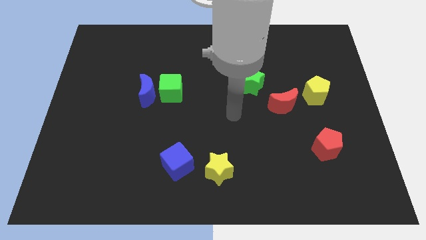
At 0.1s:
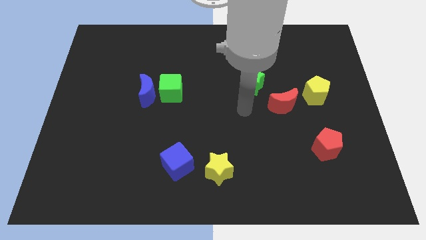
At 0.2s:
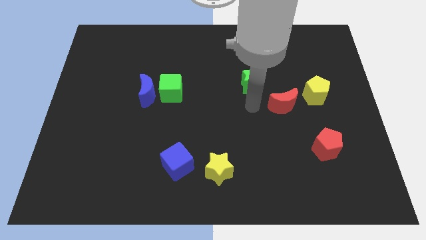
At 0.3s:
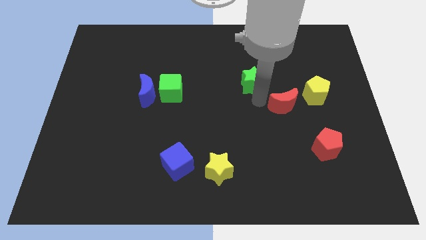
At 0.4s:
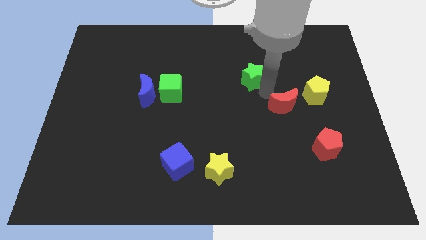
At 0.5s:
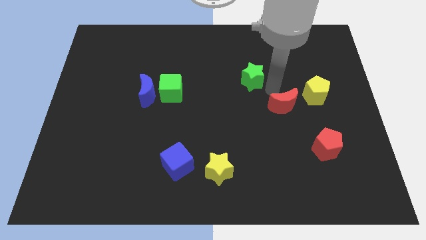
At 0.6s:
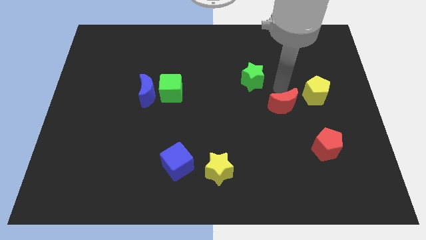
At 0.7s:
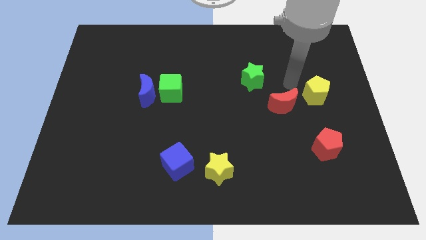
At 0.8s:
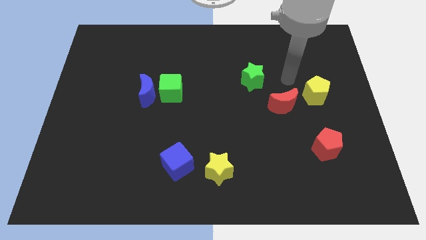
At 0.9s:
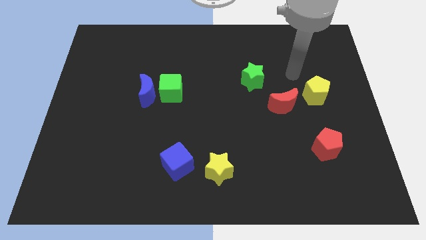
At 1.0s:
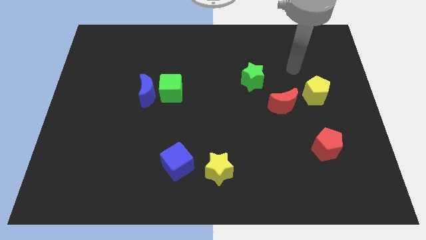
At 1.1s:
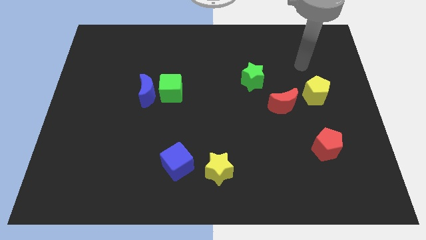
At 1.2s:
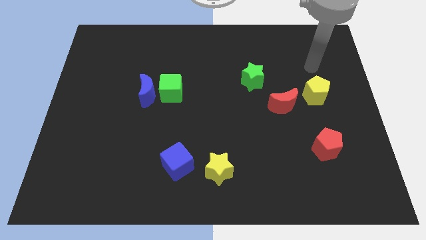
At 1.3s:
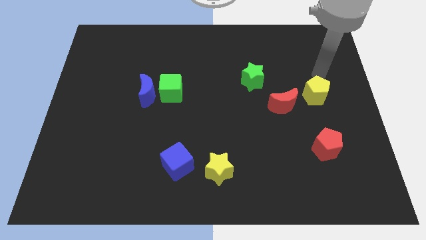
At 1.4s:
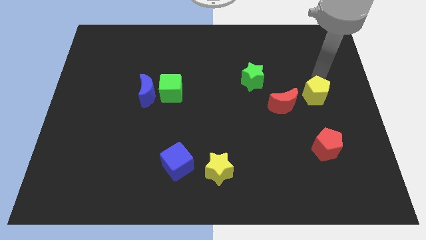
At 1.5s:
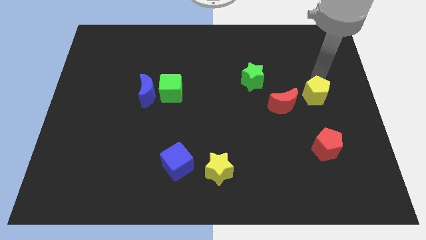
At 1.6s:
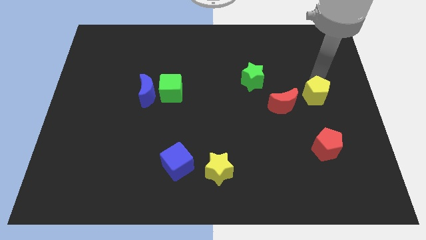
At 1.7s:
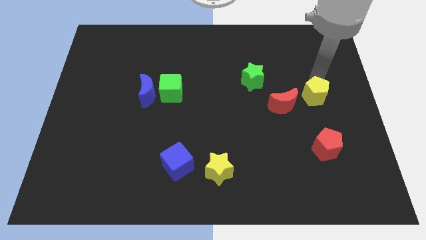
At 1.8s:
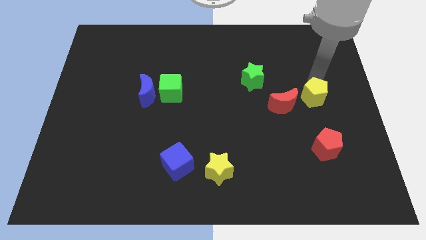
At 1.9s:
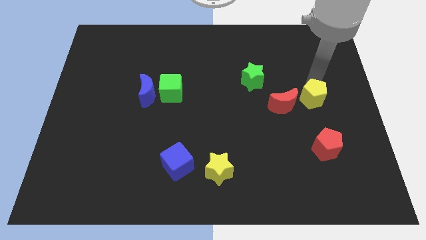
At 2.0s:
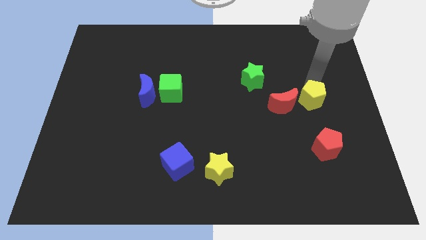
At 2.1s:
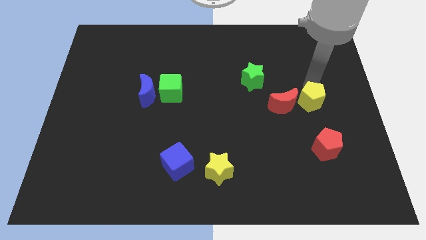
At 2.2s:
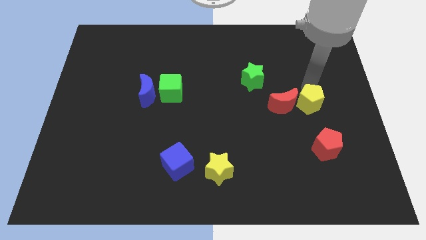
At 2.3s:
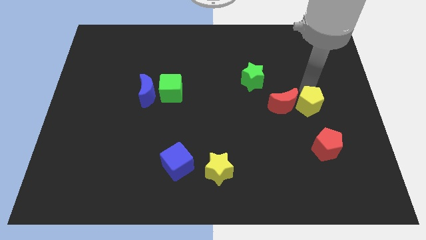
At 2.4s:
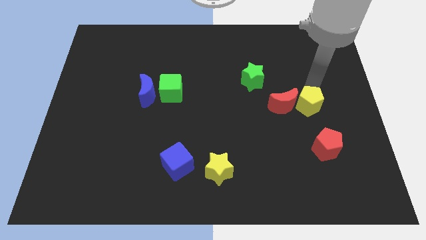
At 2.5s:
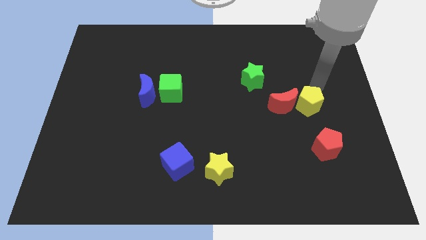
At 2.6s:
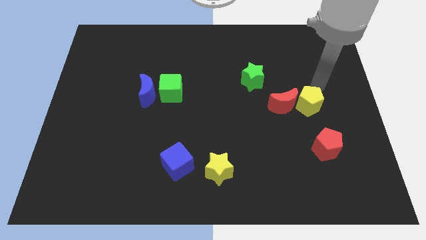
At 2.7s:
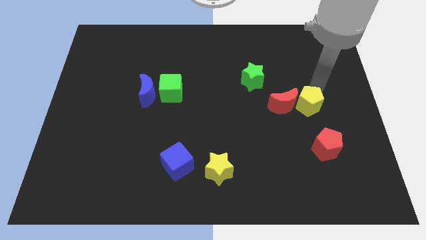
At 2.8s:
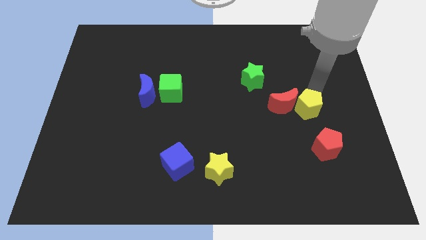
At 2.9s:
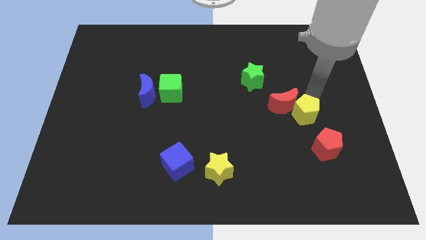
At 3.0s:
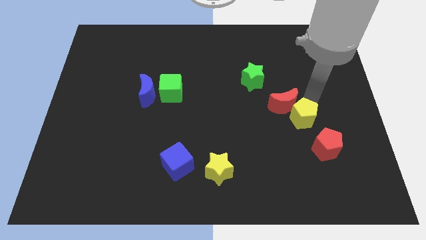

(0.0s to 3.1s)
slightly move the yellow pentagon diagonally downwards and to the left

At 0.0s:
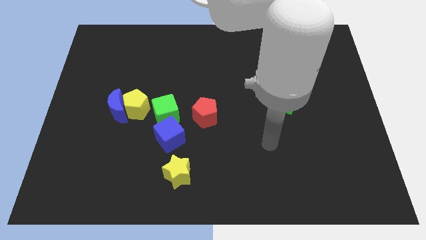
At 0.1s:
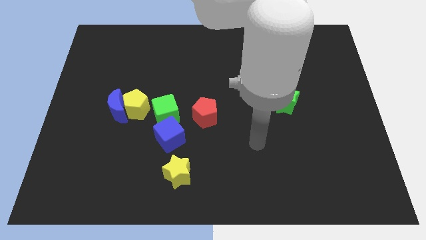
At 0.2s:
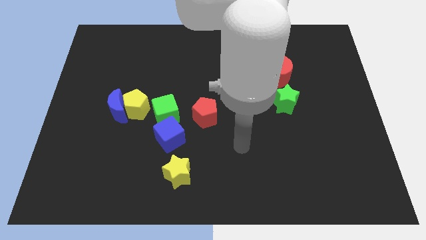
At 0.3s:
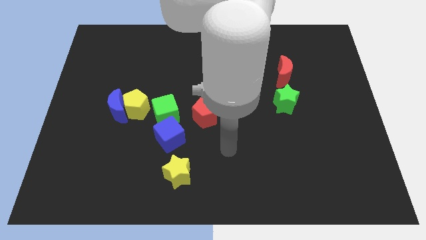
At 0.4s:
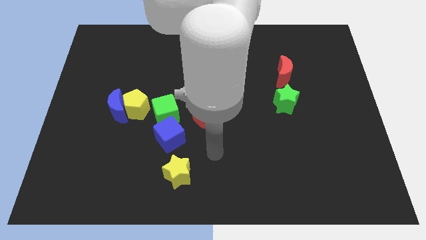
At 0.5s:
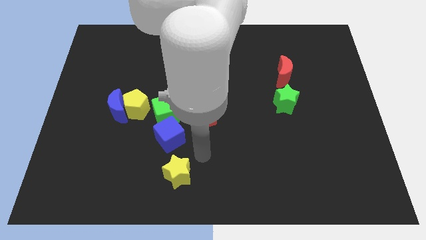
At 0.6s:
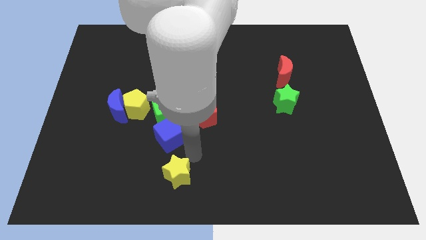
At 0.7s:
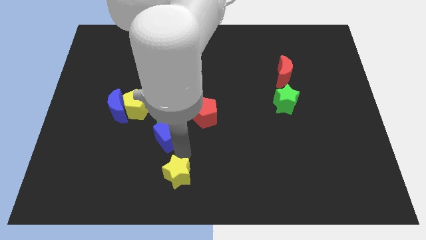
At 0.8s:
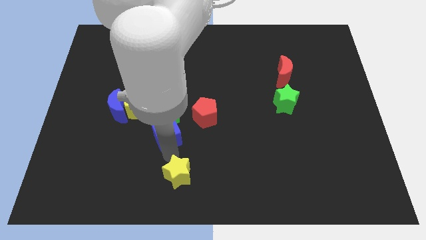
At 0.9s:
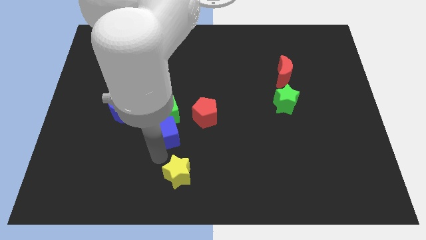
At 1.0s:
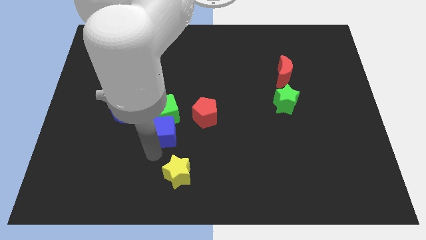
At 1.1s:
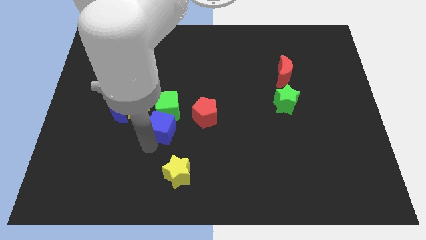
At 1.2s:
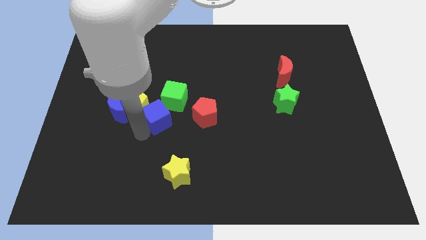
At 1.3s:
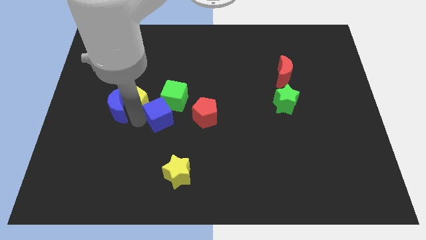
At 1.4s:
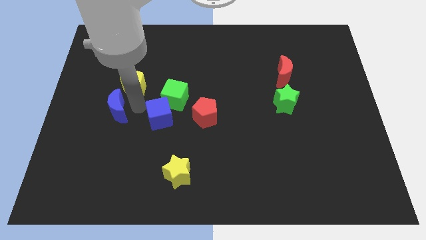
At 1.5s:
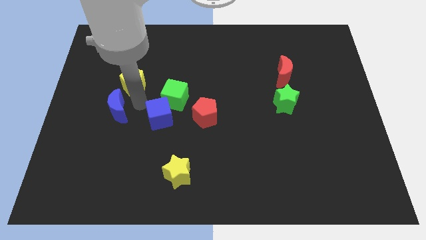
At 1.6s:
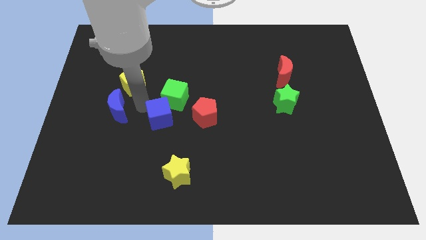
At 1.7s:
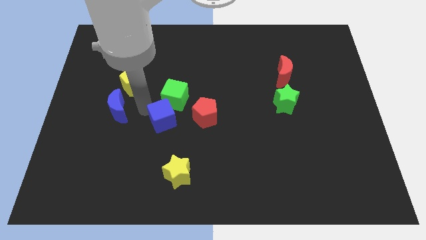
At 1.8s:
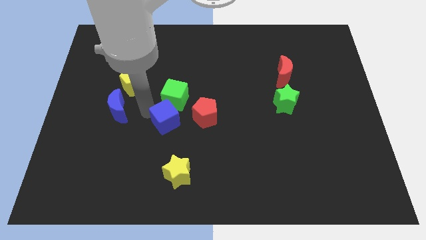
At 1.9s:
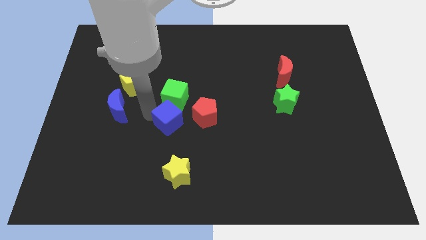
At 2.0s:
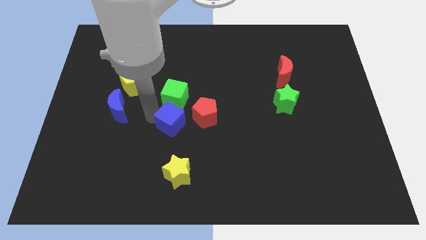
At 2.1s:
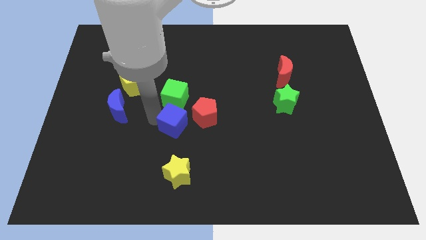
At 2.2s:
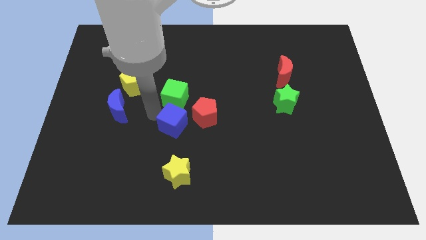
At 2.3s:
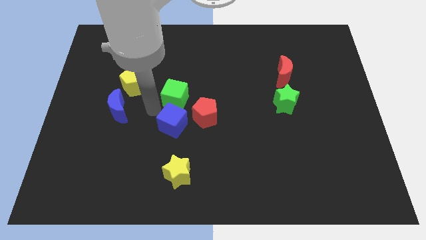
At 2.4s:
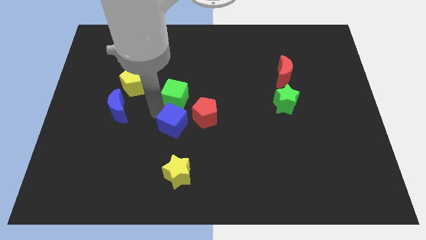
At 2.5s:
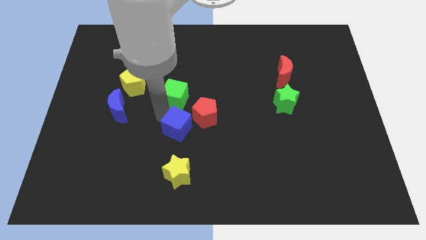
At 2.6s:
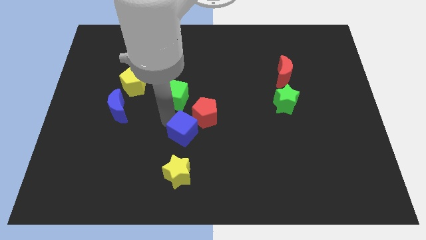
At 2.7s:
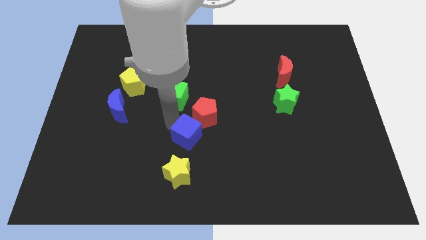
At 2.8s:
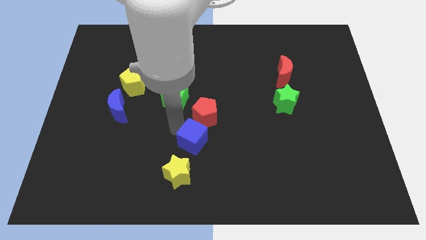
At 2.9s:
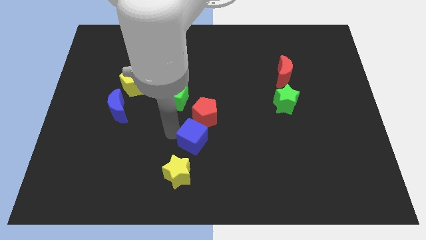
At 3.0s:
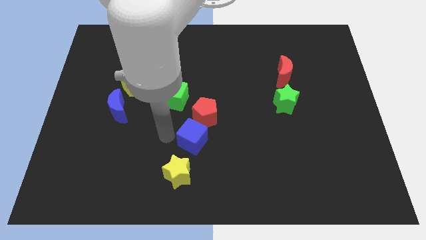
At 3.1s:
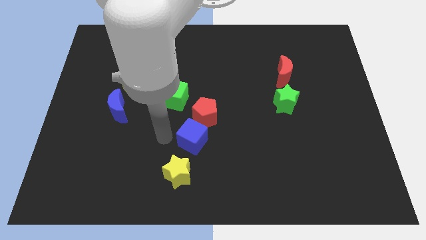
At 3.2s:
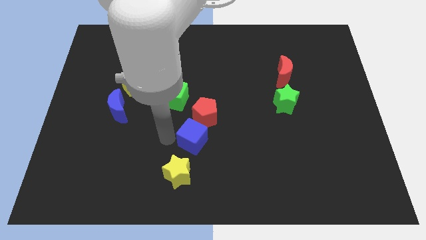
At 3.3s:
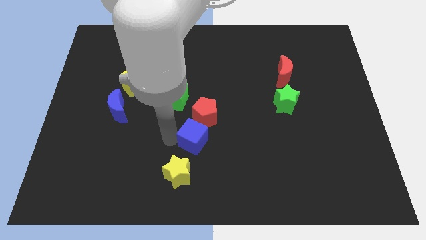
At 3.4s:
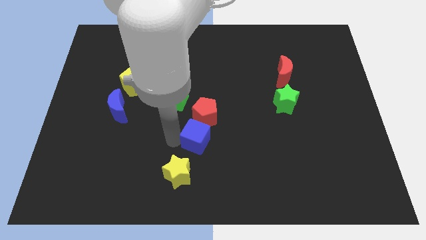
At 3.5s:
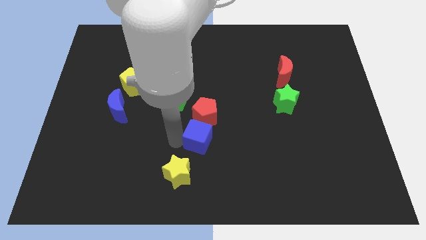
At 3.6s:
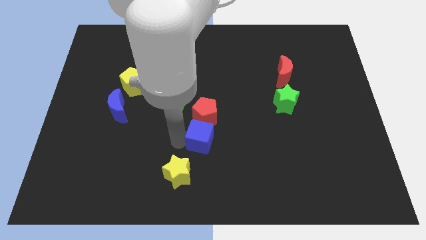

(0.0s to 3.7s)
slightly slide the blue cube to the right

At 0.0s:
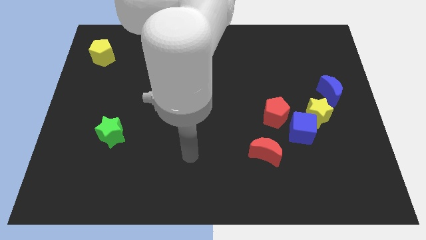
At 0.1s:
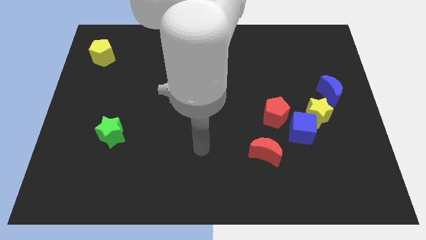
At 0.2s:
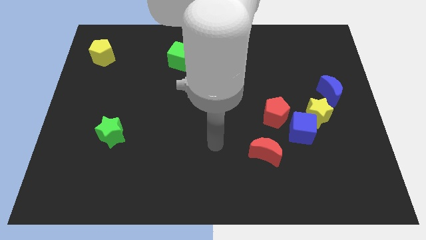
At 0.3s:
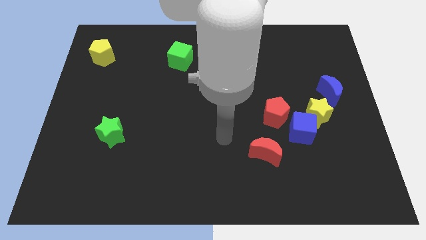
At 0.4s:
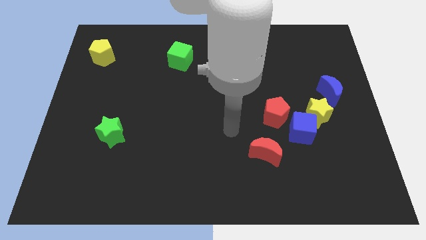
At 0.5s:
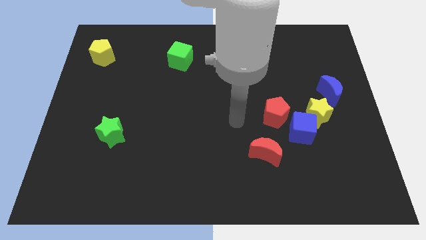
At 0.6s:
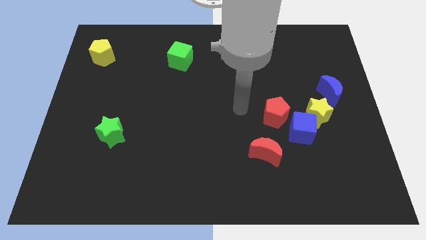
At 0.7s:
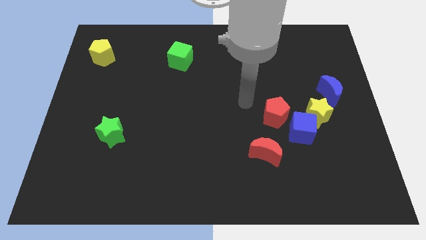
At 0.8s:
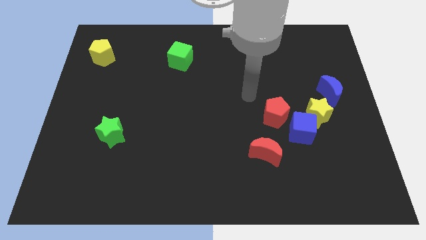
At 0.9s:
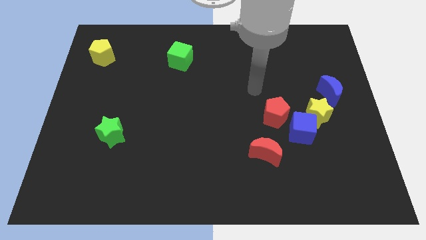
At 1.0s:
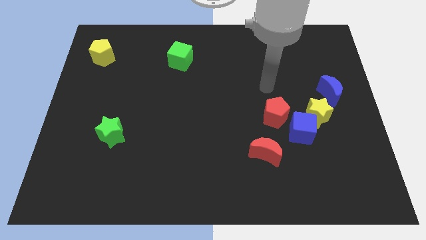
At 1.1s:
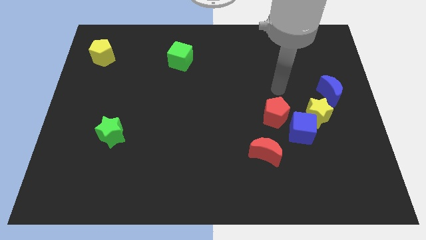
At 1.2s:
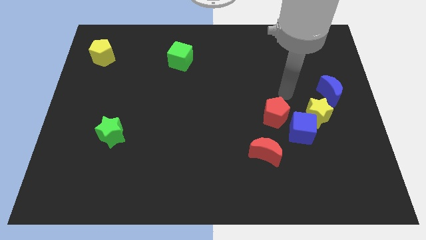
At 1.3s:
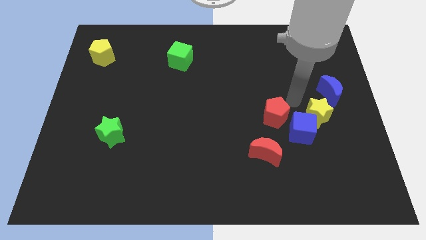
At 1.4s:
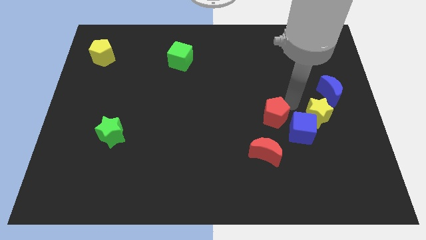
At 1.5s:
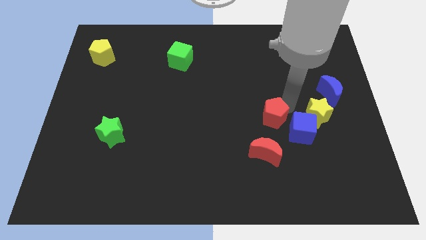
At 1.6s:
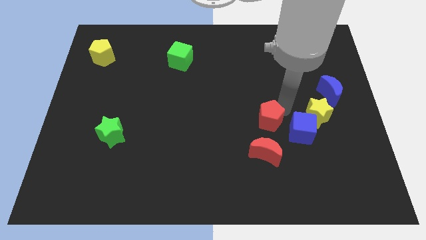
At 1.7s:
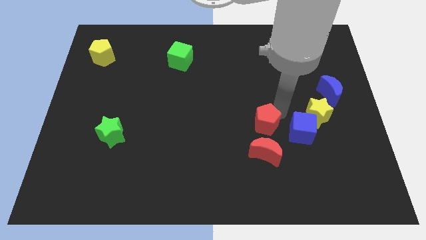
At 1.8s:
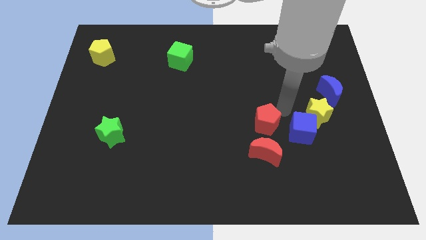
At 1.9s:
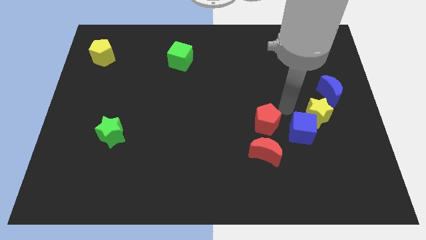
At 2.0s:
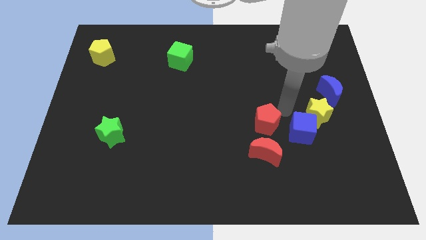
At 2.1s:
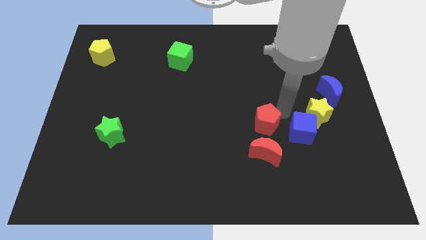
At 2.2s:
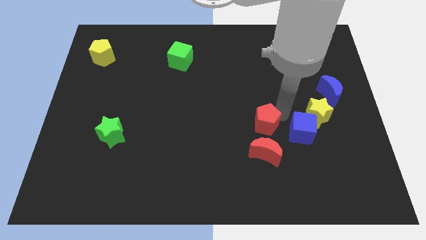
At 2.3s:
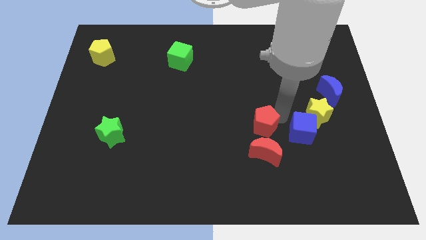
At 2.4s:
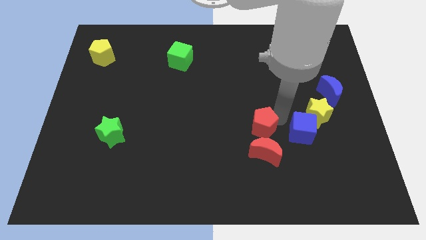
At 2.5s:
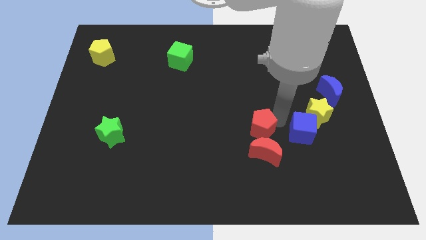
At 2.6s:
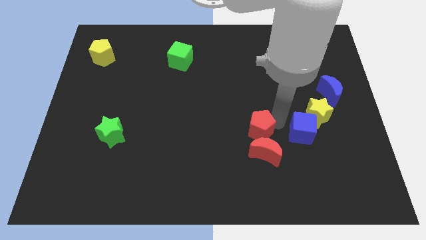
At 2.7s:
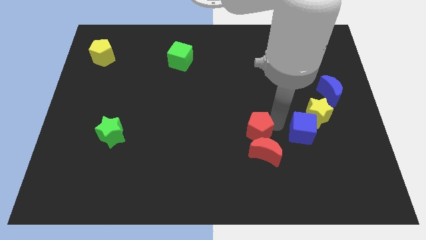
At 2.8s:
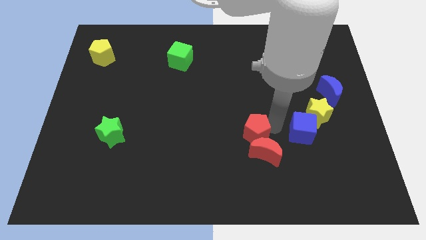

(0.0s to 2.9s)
slightly move the red pentagon downwards and to the left
